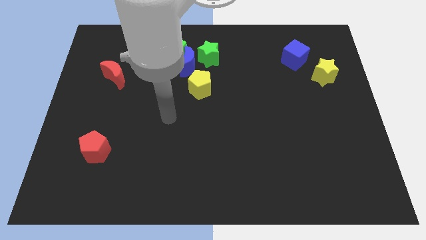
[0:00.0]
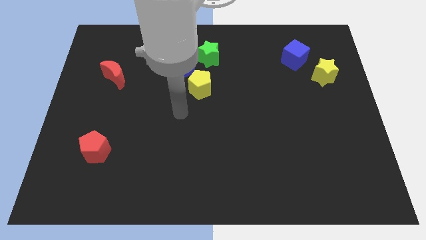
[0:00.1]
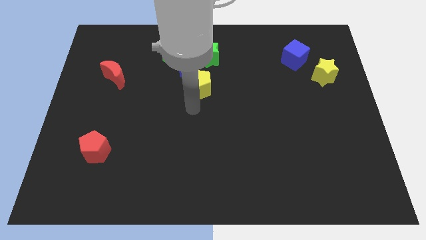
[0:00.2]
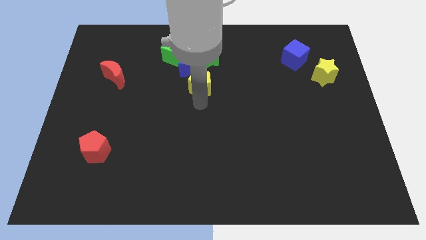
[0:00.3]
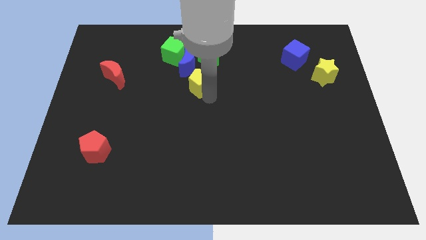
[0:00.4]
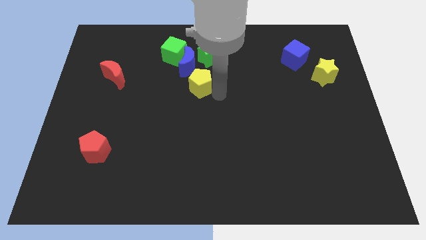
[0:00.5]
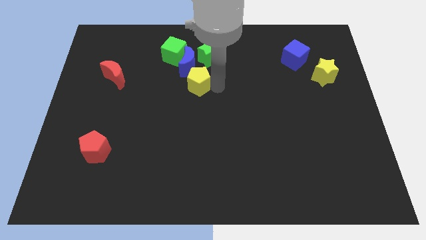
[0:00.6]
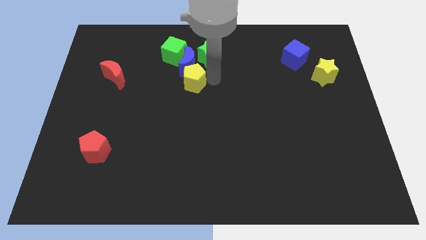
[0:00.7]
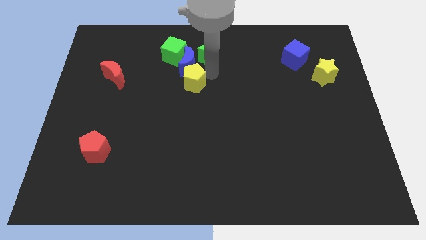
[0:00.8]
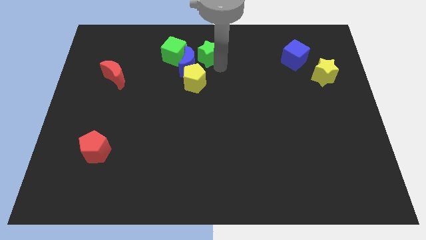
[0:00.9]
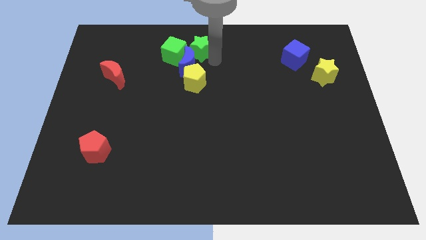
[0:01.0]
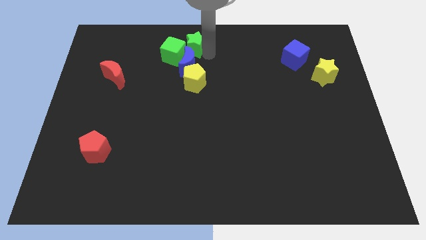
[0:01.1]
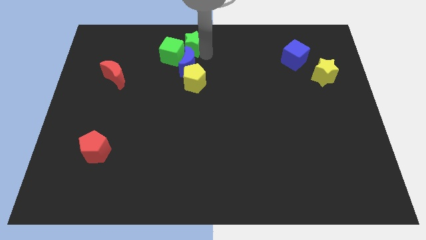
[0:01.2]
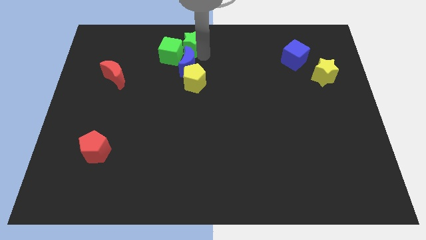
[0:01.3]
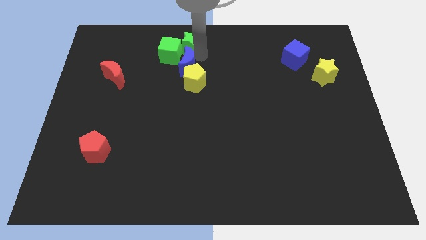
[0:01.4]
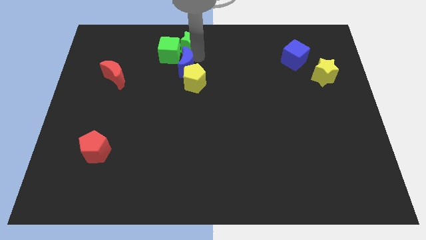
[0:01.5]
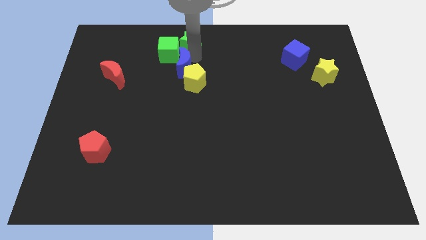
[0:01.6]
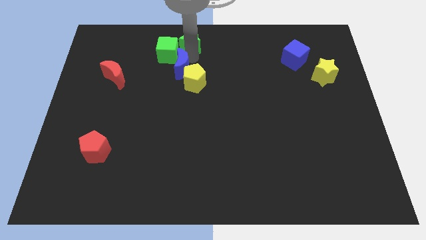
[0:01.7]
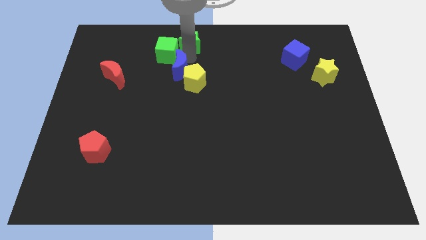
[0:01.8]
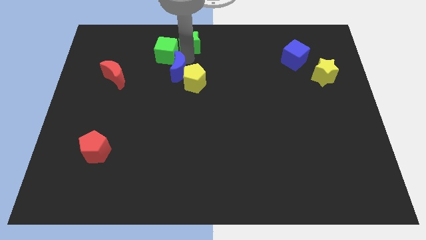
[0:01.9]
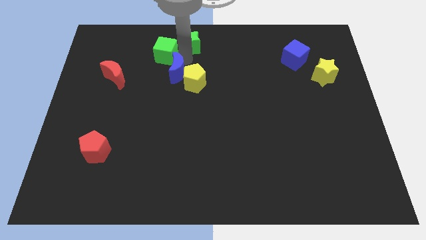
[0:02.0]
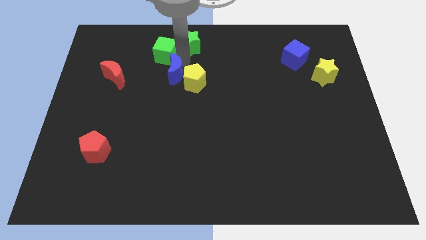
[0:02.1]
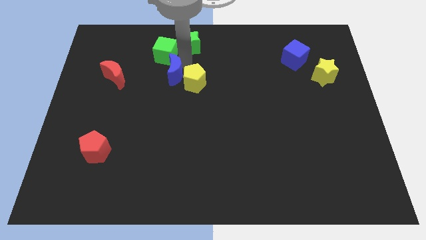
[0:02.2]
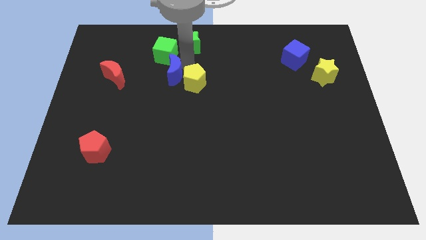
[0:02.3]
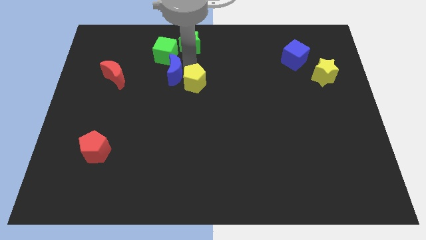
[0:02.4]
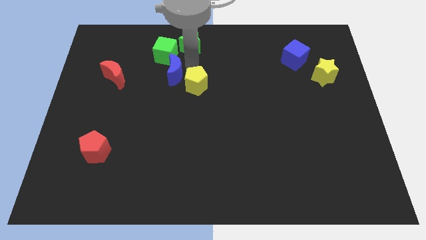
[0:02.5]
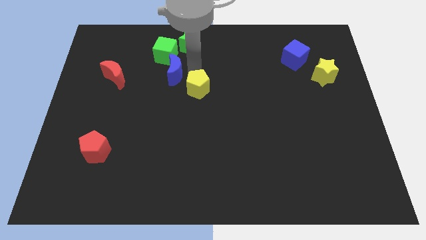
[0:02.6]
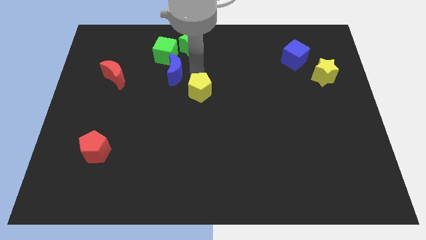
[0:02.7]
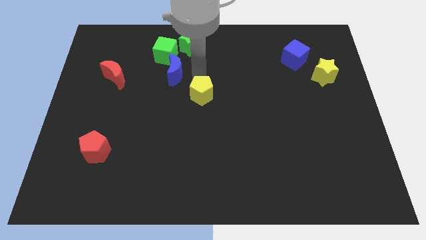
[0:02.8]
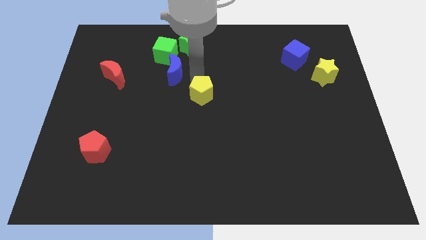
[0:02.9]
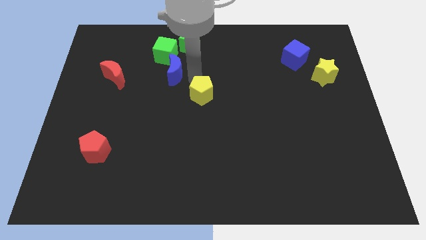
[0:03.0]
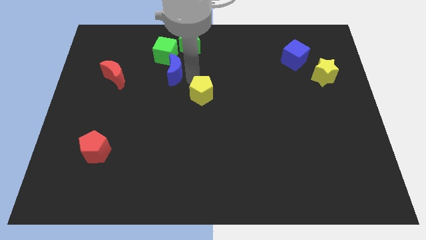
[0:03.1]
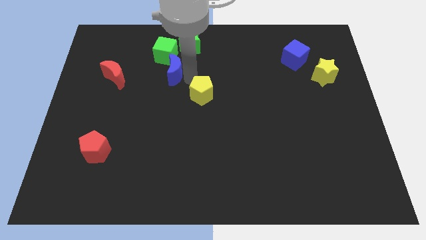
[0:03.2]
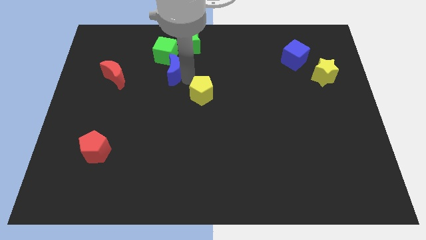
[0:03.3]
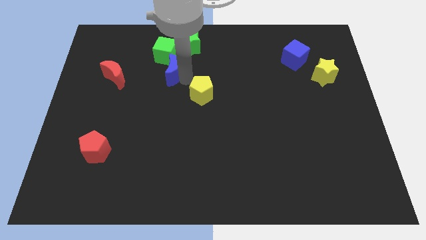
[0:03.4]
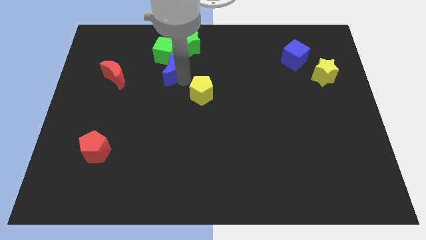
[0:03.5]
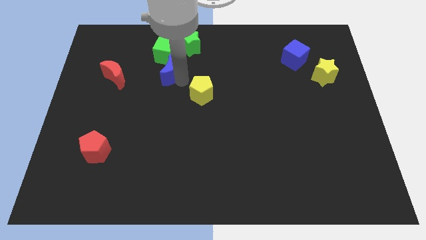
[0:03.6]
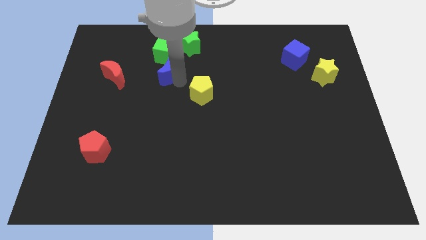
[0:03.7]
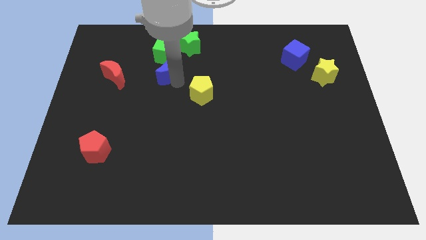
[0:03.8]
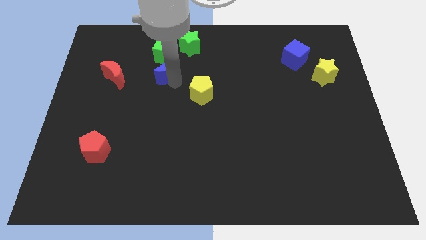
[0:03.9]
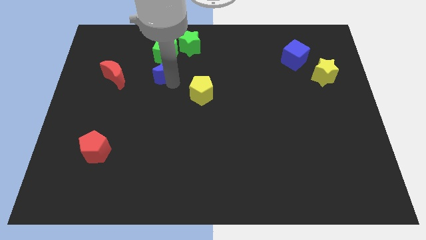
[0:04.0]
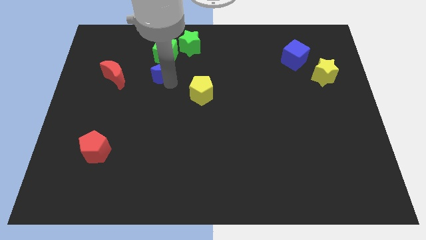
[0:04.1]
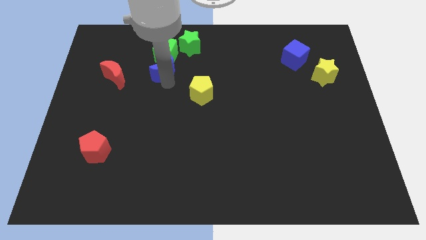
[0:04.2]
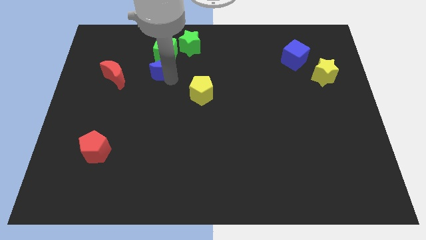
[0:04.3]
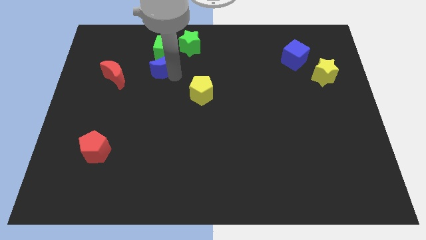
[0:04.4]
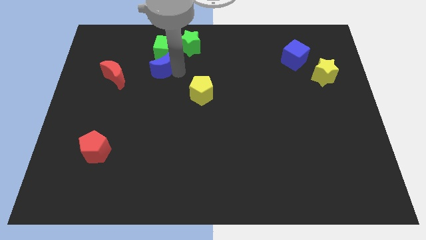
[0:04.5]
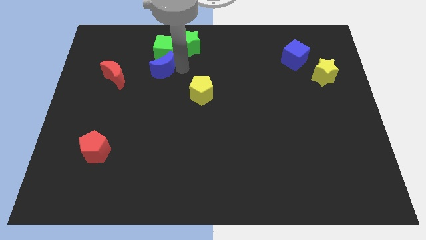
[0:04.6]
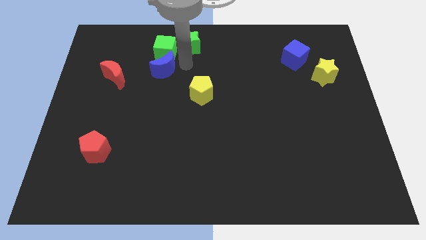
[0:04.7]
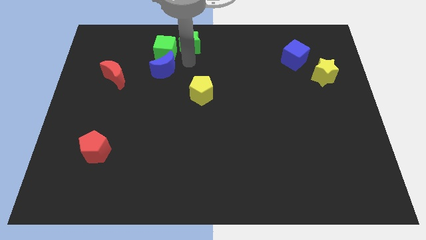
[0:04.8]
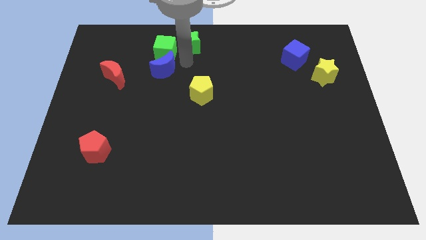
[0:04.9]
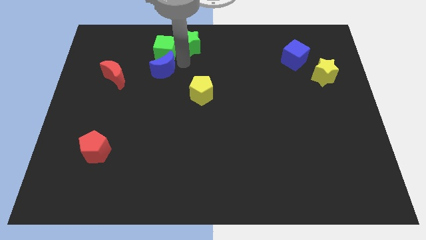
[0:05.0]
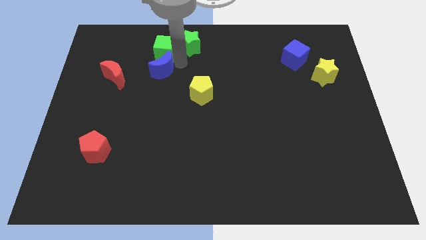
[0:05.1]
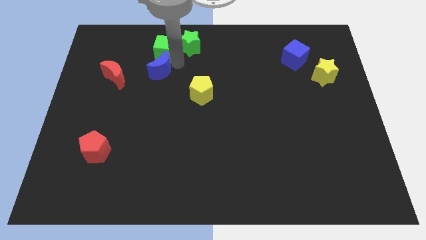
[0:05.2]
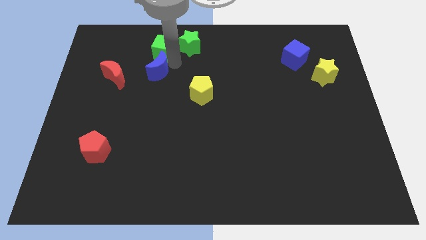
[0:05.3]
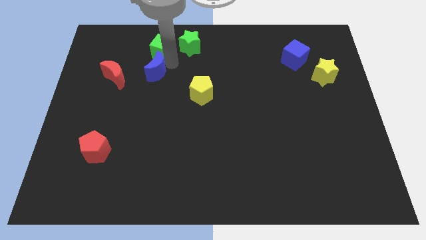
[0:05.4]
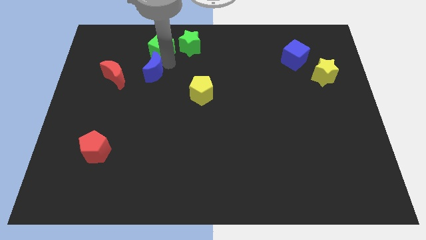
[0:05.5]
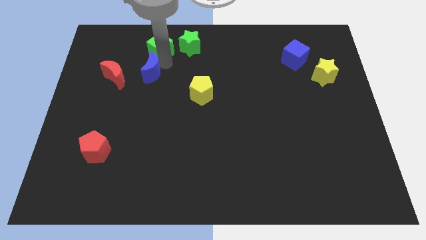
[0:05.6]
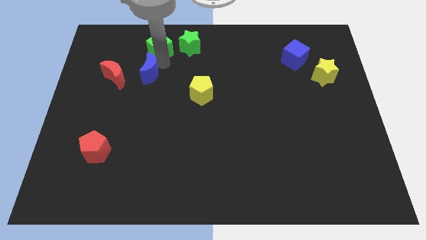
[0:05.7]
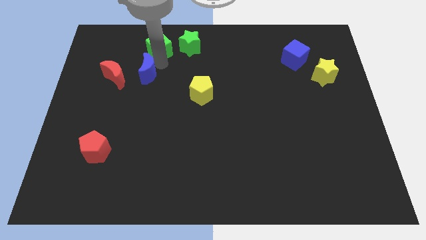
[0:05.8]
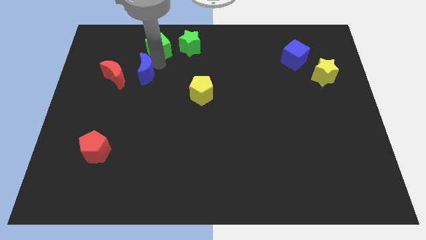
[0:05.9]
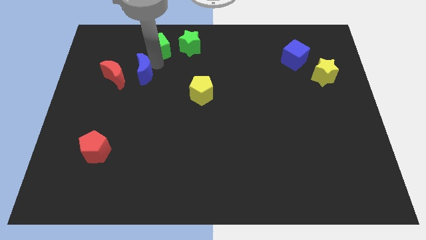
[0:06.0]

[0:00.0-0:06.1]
separate the blue moon from the green cube, green star, and yellow pentagon

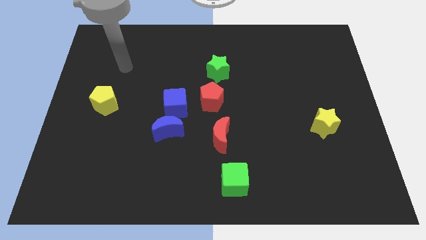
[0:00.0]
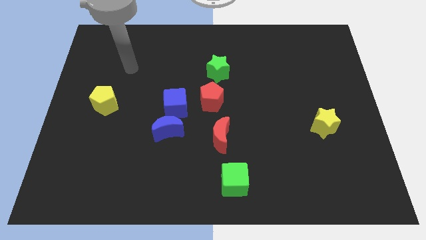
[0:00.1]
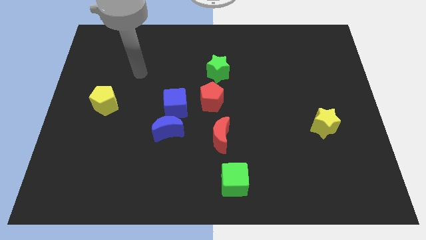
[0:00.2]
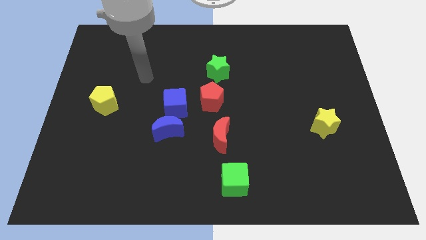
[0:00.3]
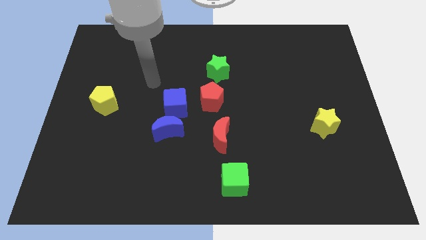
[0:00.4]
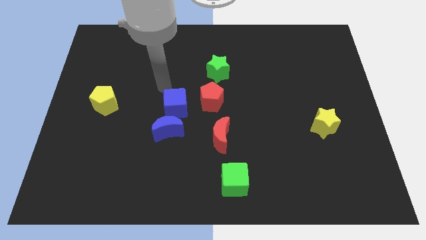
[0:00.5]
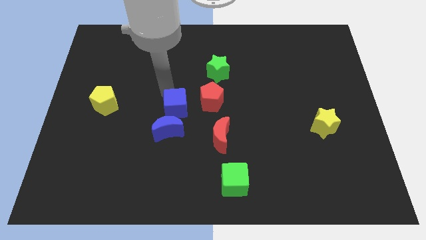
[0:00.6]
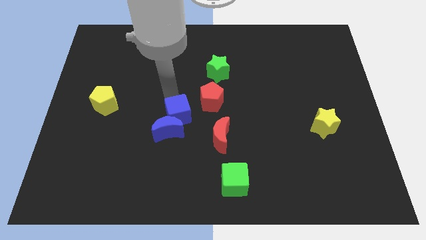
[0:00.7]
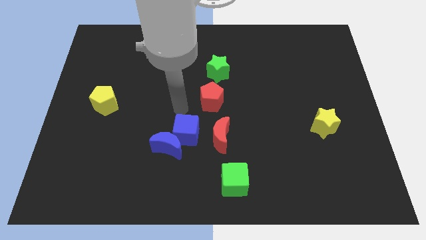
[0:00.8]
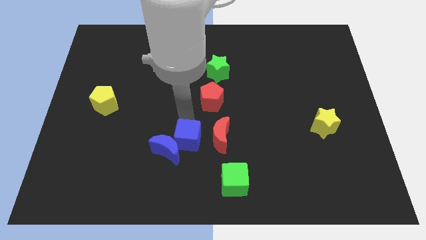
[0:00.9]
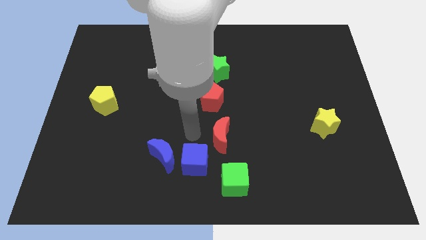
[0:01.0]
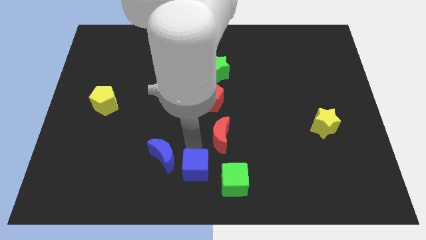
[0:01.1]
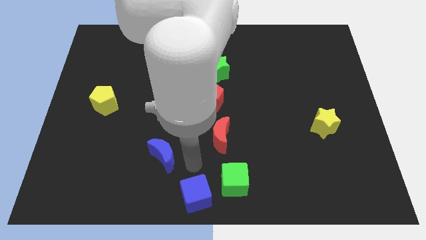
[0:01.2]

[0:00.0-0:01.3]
separate the blue moon from the blue cube

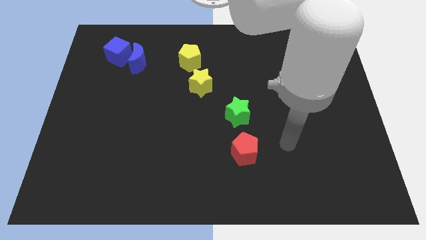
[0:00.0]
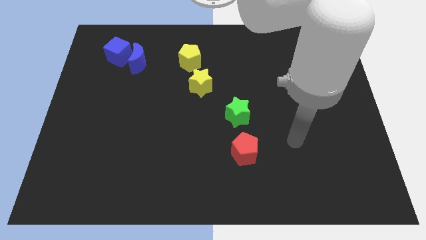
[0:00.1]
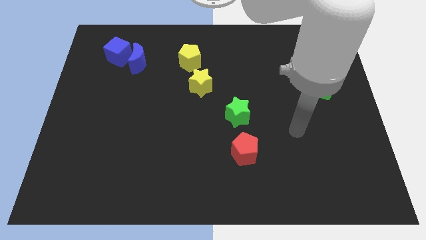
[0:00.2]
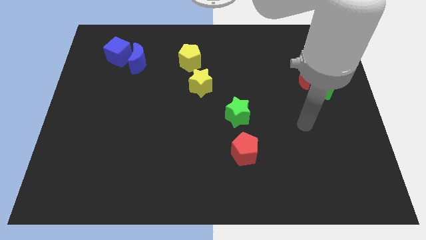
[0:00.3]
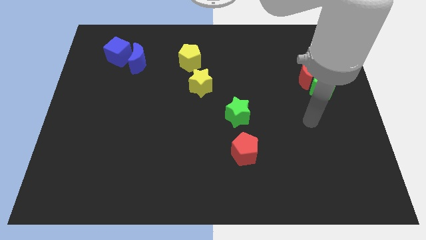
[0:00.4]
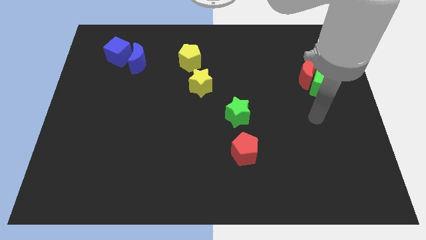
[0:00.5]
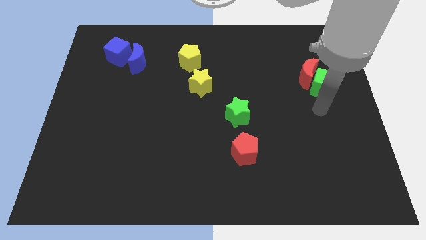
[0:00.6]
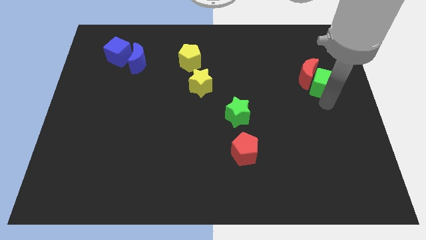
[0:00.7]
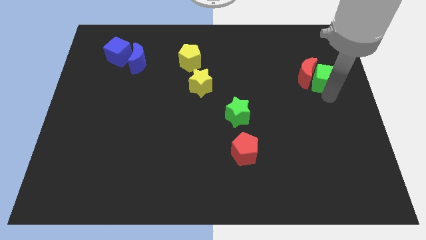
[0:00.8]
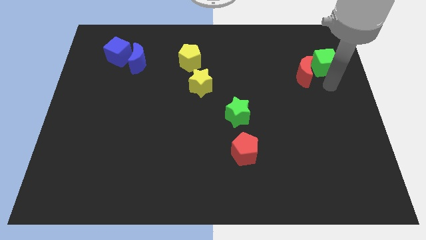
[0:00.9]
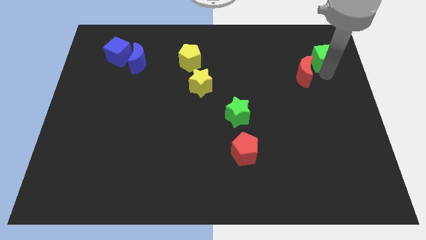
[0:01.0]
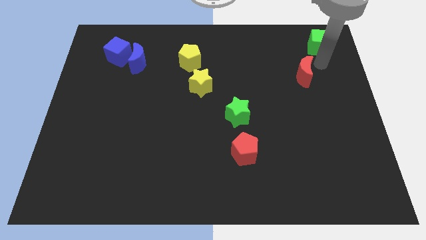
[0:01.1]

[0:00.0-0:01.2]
separate the red moon from the green cube

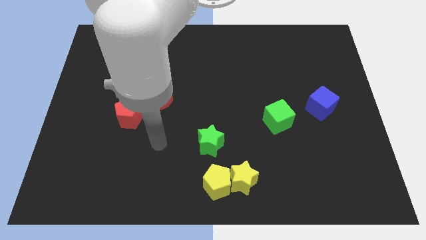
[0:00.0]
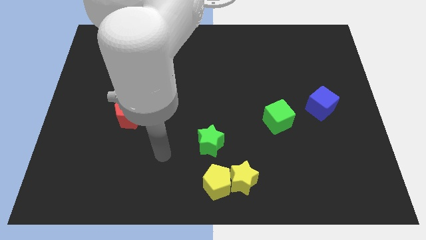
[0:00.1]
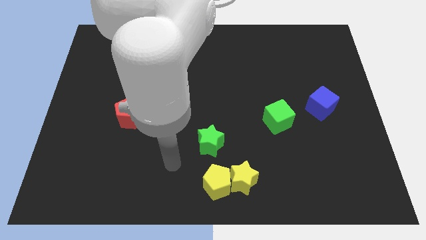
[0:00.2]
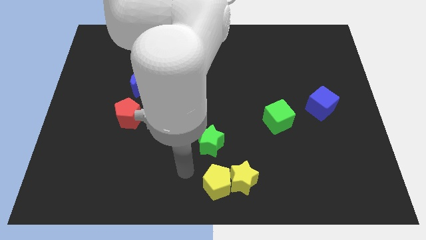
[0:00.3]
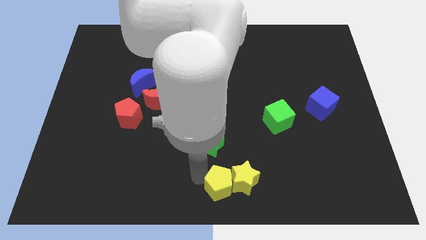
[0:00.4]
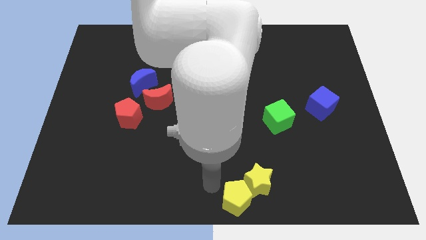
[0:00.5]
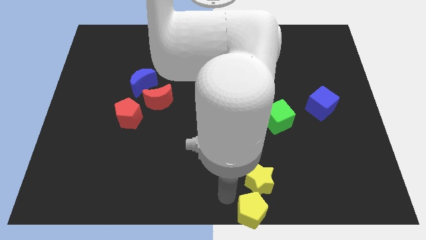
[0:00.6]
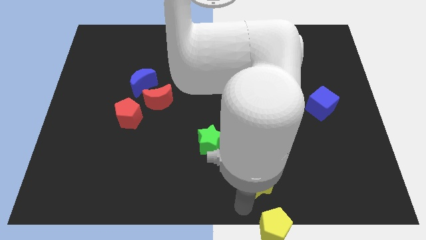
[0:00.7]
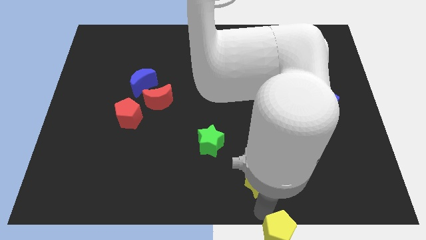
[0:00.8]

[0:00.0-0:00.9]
move the yellow star away from the yellow pentagon
